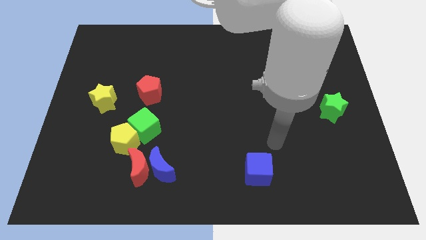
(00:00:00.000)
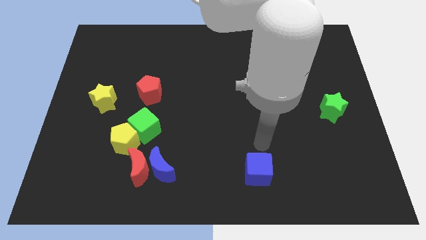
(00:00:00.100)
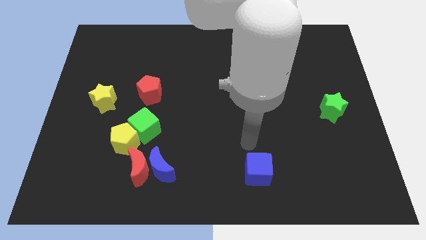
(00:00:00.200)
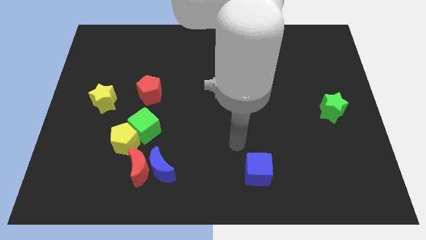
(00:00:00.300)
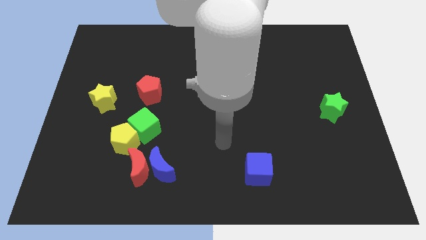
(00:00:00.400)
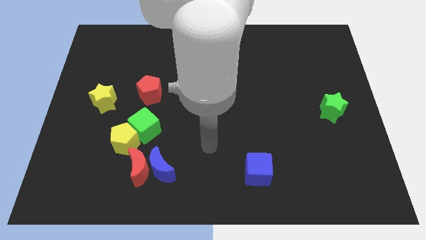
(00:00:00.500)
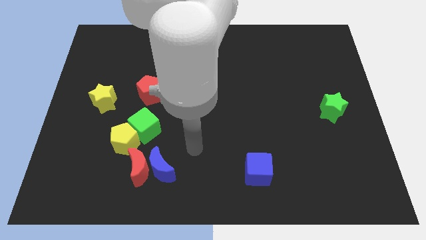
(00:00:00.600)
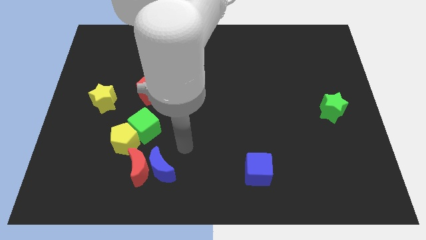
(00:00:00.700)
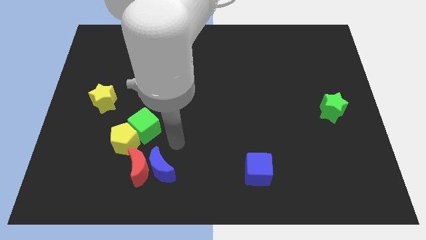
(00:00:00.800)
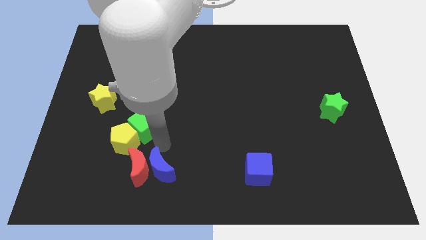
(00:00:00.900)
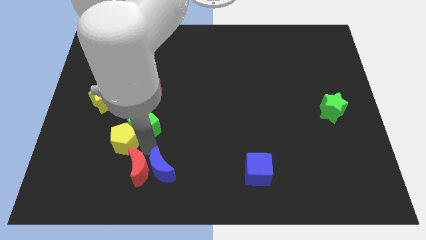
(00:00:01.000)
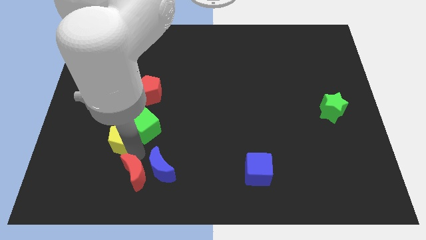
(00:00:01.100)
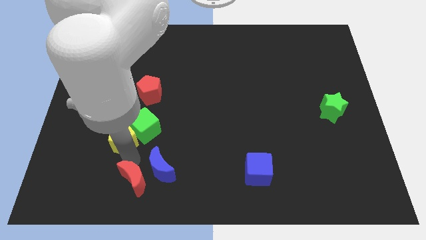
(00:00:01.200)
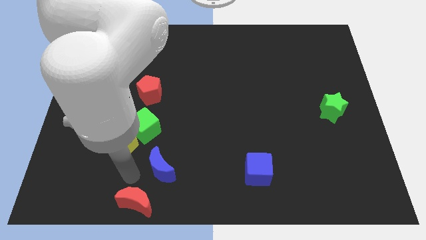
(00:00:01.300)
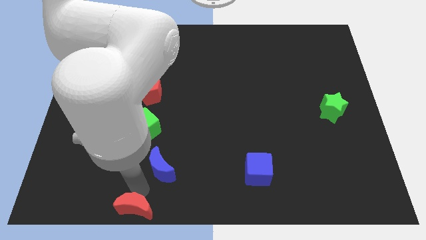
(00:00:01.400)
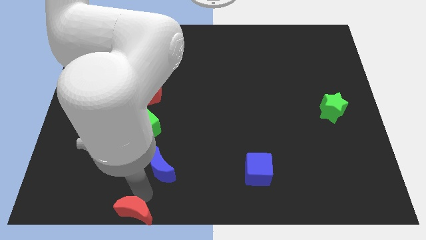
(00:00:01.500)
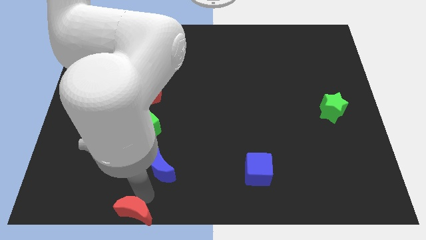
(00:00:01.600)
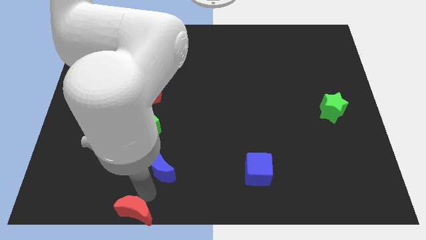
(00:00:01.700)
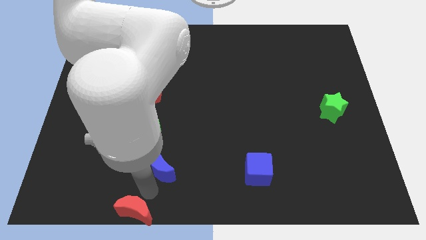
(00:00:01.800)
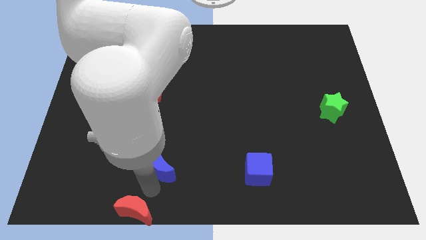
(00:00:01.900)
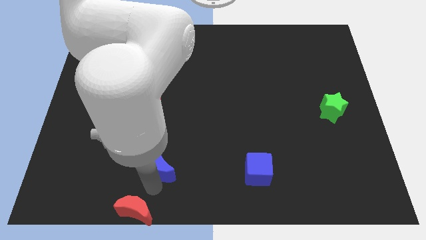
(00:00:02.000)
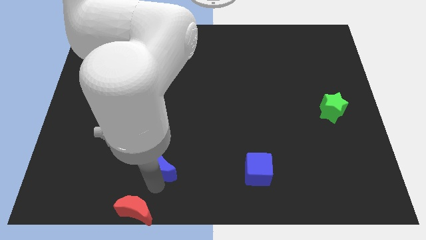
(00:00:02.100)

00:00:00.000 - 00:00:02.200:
move the blue moon away from the red moon

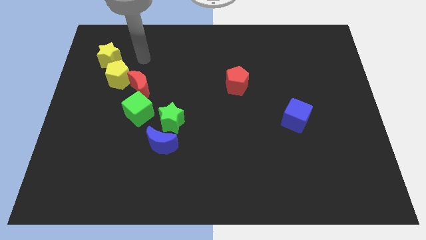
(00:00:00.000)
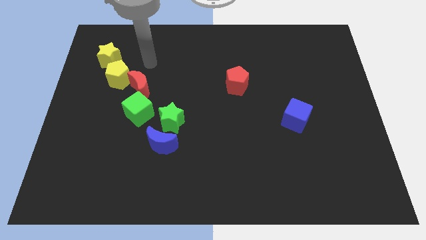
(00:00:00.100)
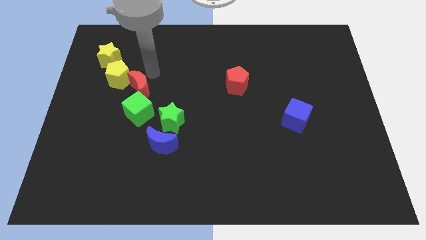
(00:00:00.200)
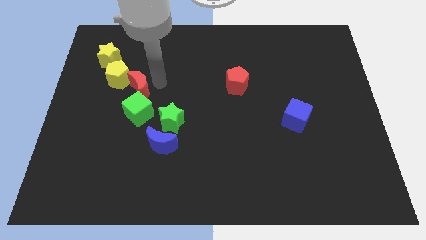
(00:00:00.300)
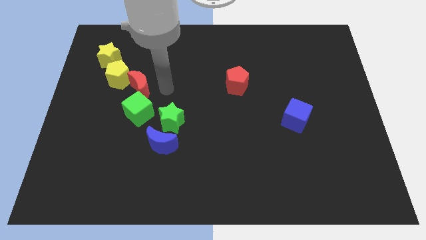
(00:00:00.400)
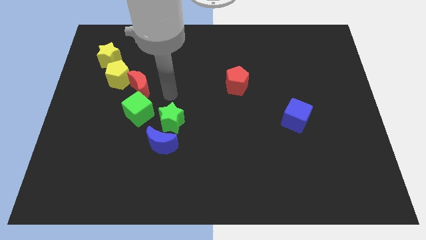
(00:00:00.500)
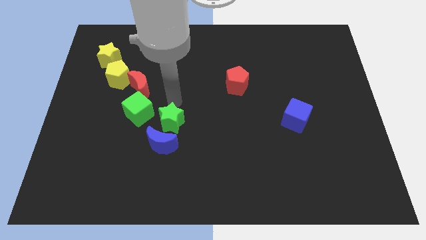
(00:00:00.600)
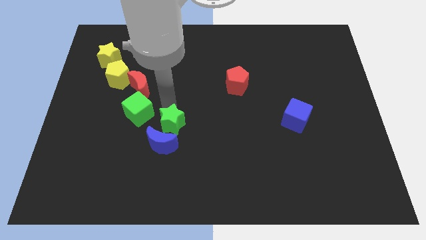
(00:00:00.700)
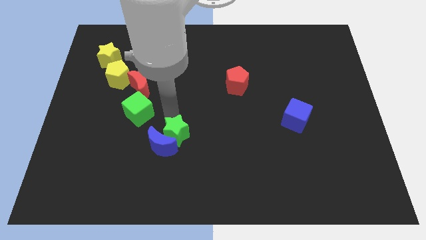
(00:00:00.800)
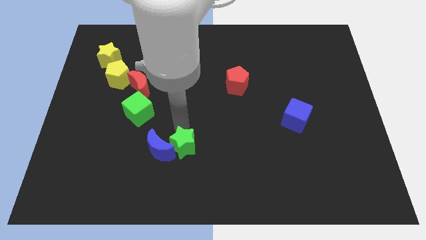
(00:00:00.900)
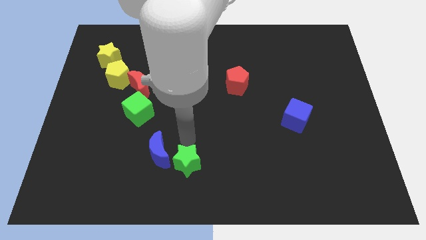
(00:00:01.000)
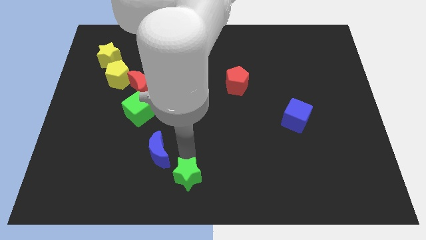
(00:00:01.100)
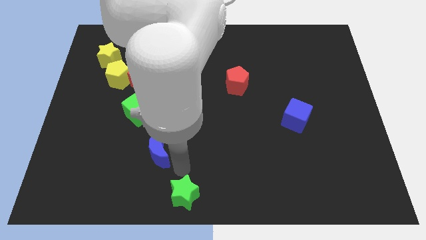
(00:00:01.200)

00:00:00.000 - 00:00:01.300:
pull the blue moon apart from the green star

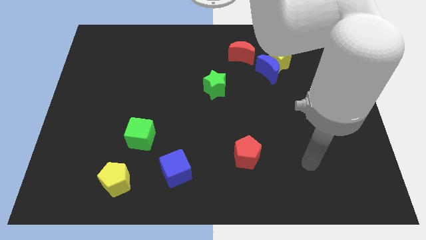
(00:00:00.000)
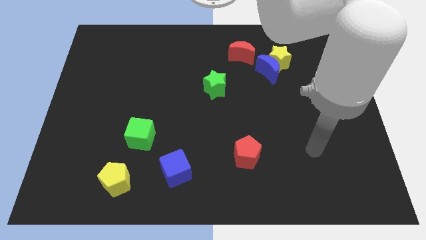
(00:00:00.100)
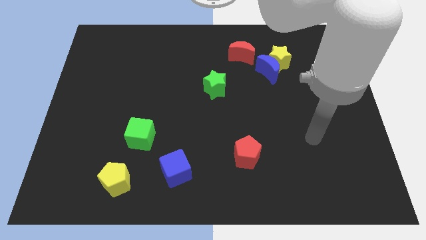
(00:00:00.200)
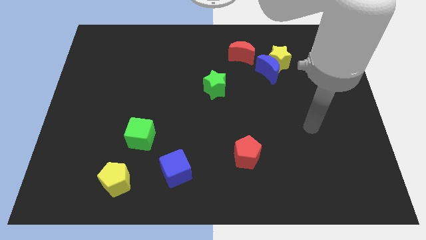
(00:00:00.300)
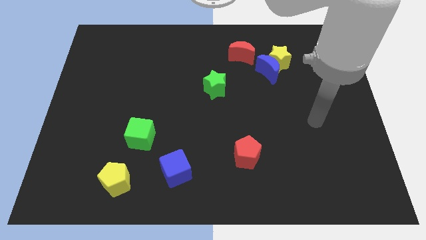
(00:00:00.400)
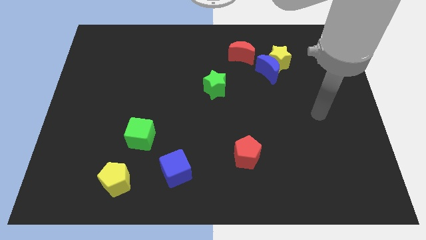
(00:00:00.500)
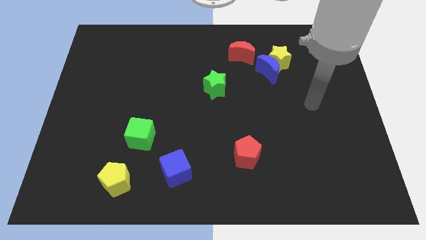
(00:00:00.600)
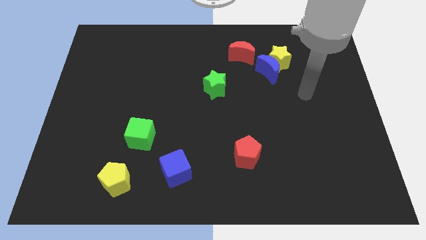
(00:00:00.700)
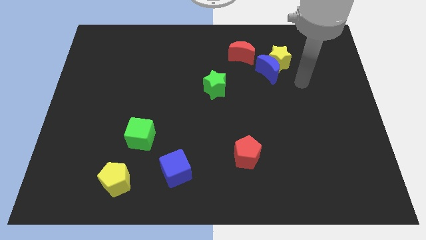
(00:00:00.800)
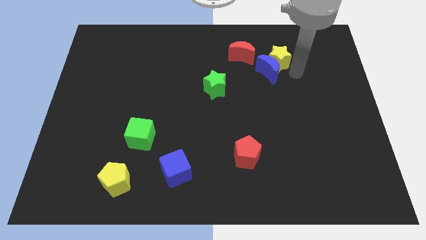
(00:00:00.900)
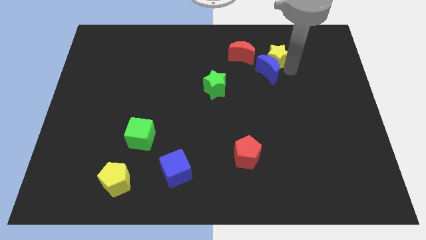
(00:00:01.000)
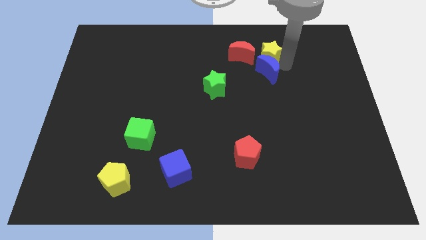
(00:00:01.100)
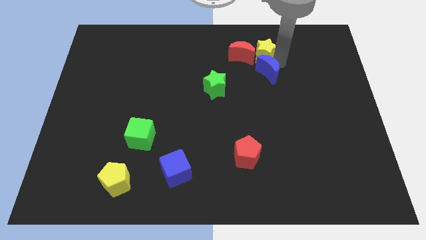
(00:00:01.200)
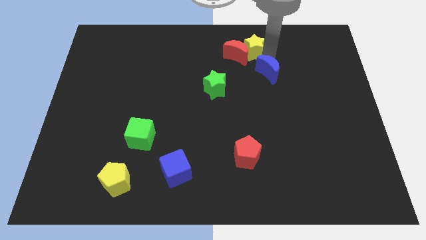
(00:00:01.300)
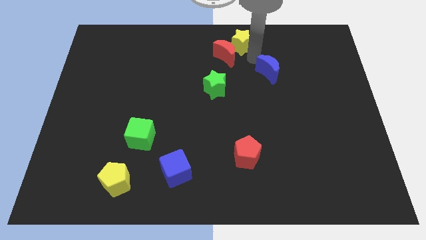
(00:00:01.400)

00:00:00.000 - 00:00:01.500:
move the blue moon away from the yellow star and red moon

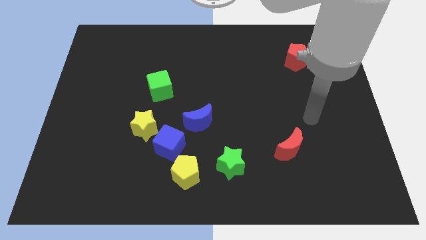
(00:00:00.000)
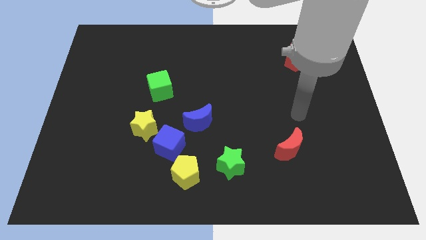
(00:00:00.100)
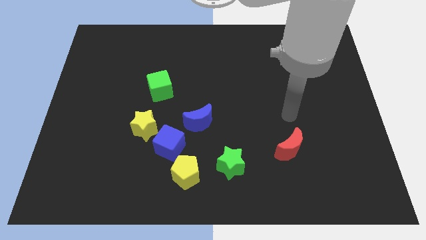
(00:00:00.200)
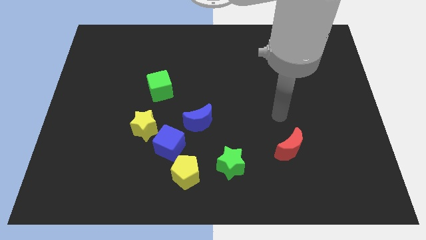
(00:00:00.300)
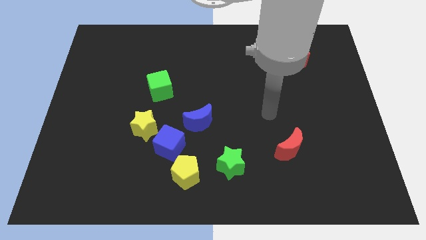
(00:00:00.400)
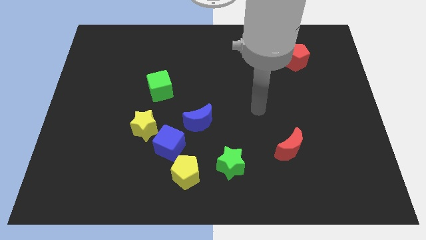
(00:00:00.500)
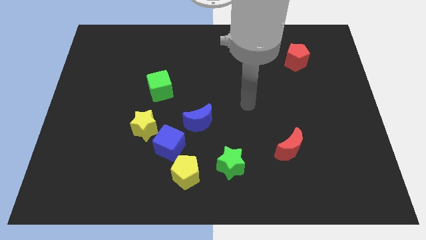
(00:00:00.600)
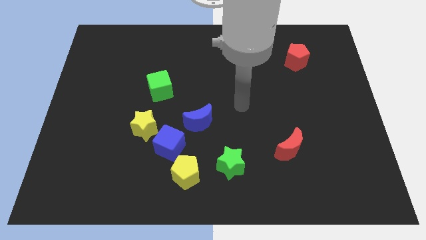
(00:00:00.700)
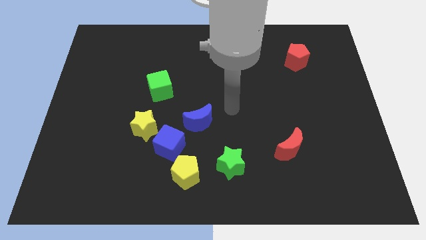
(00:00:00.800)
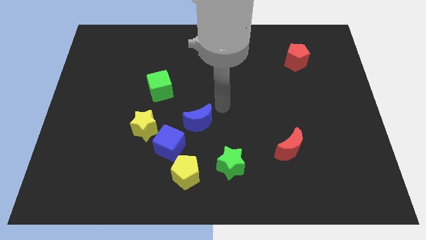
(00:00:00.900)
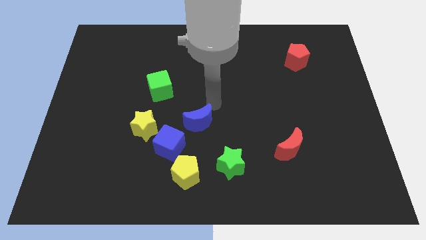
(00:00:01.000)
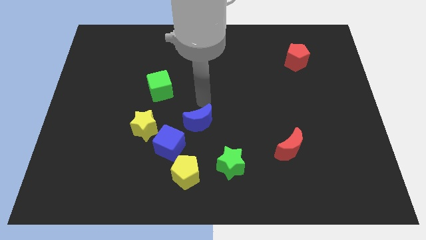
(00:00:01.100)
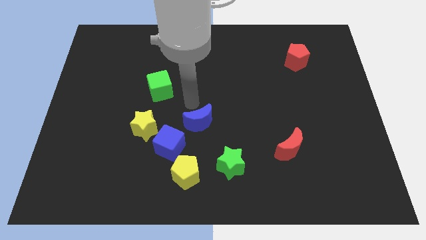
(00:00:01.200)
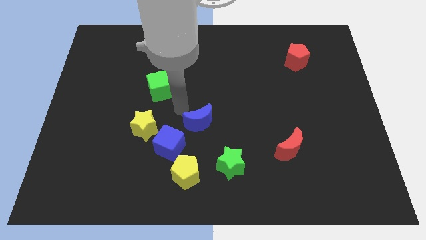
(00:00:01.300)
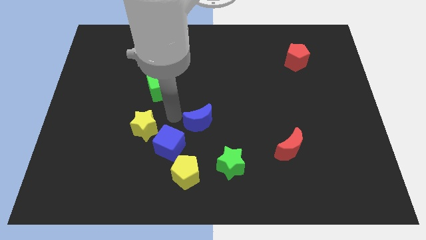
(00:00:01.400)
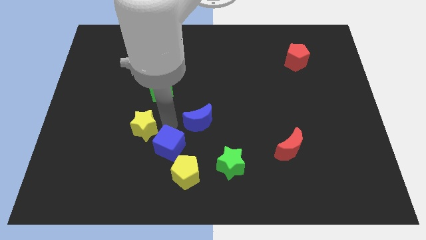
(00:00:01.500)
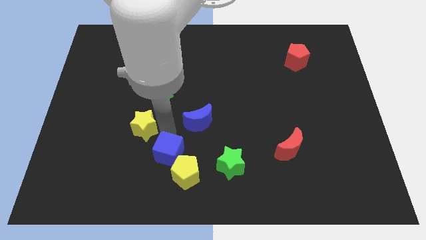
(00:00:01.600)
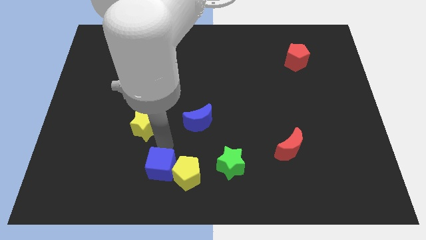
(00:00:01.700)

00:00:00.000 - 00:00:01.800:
move the yellow star away from the blue cube

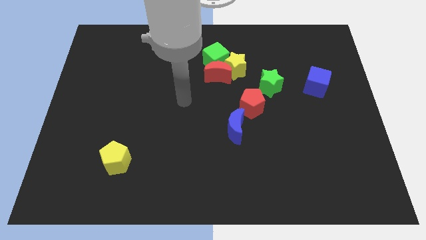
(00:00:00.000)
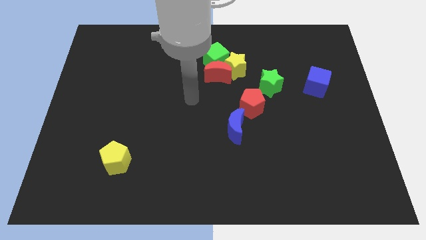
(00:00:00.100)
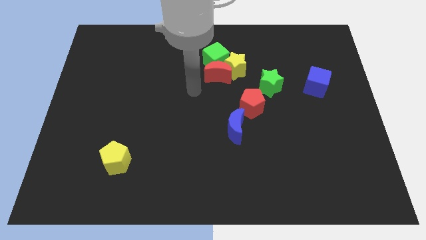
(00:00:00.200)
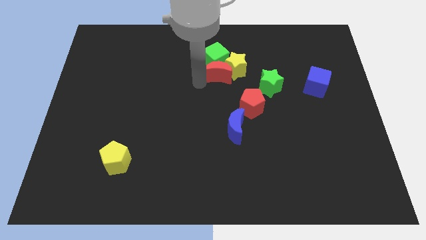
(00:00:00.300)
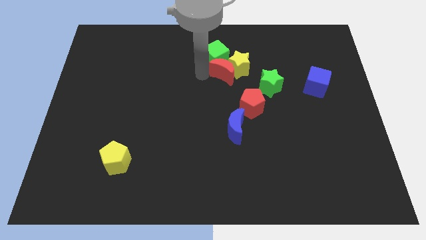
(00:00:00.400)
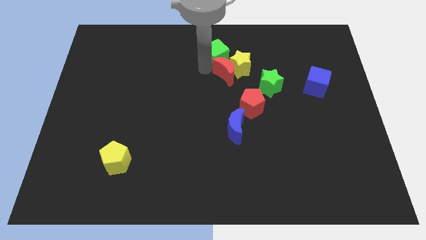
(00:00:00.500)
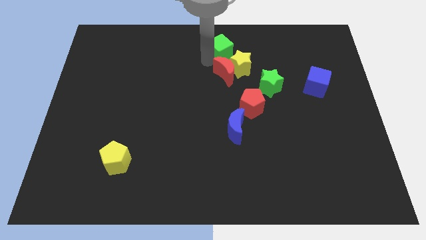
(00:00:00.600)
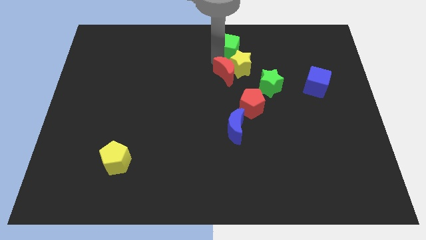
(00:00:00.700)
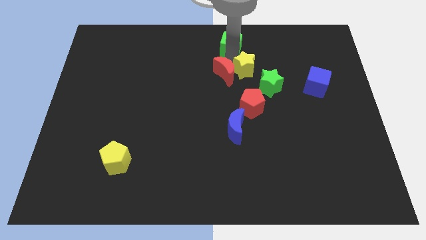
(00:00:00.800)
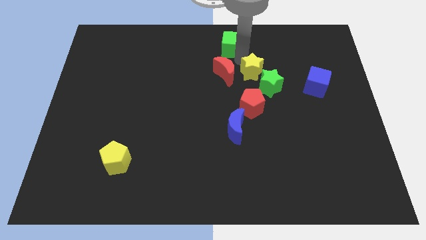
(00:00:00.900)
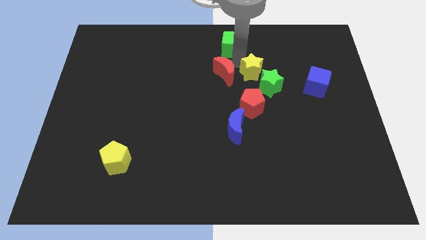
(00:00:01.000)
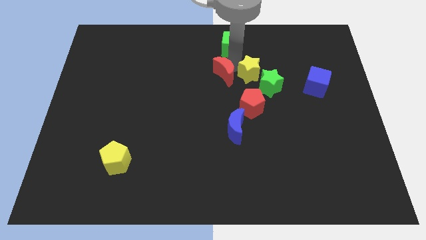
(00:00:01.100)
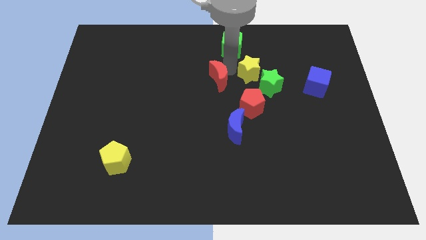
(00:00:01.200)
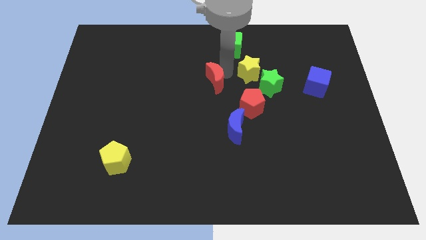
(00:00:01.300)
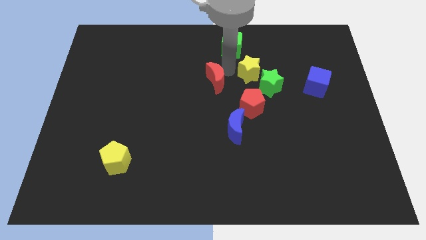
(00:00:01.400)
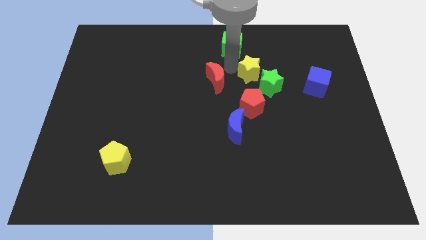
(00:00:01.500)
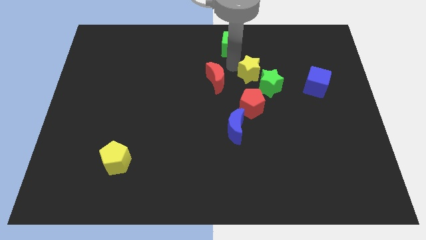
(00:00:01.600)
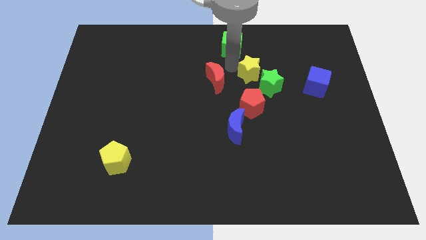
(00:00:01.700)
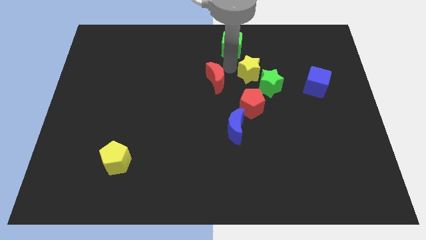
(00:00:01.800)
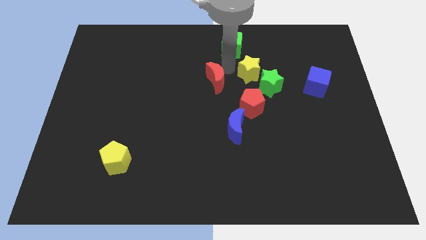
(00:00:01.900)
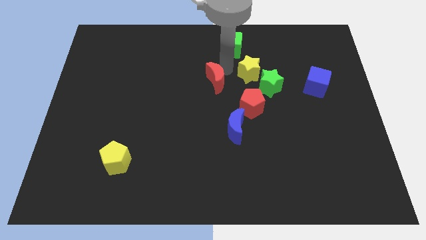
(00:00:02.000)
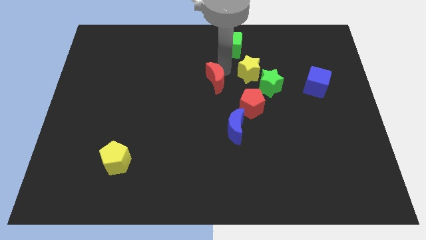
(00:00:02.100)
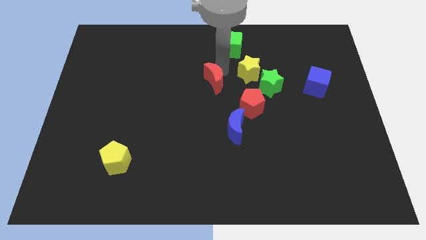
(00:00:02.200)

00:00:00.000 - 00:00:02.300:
move the red moon away from the yellow star and green cube

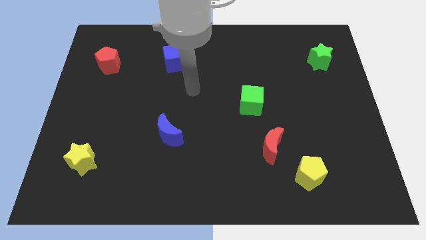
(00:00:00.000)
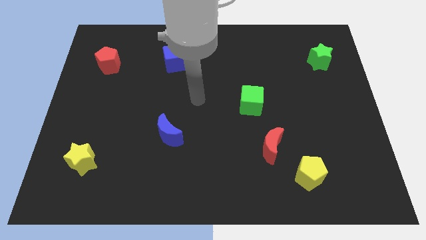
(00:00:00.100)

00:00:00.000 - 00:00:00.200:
pull the red moon apart from the yellow pentagon
